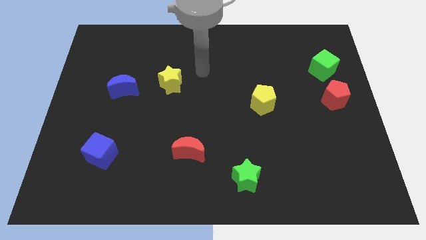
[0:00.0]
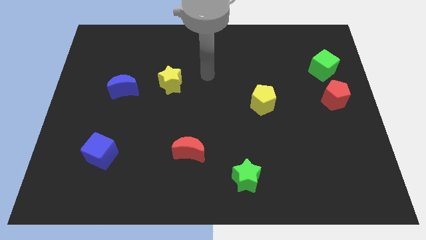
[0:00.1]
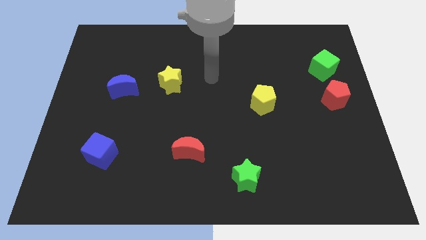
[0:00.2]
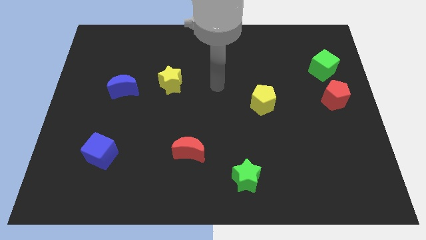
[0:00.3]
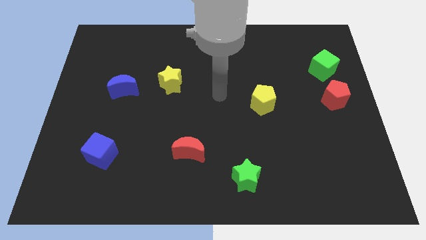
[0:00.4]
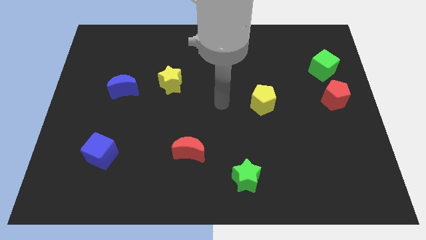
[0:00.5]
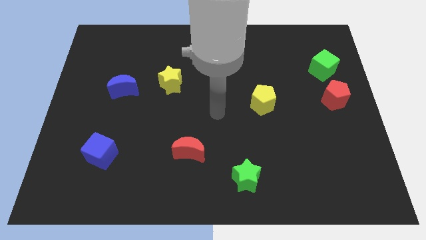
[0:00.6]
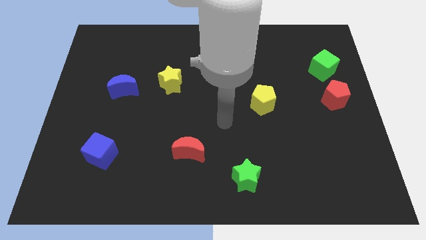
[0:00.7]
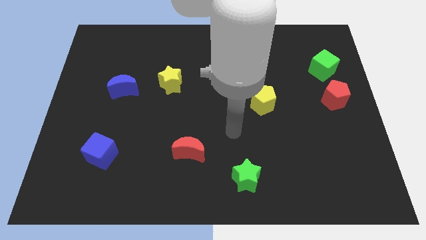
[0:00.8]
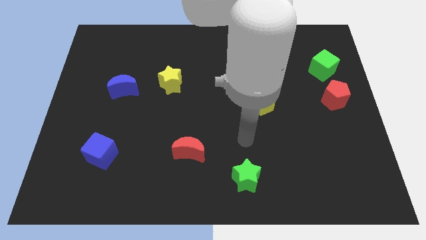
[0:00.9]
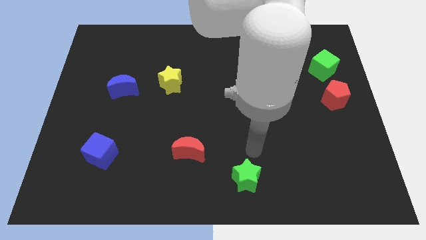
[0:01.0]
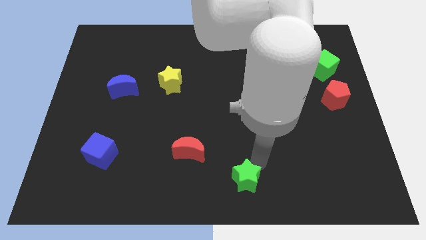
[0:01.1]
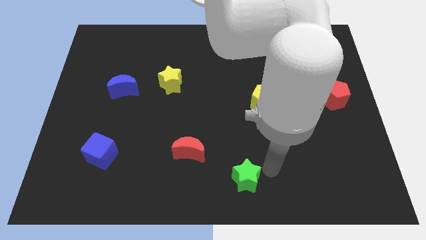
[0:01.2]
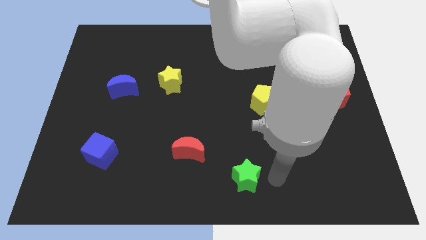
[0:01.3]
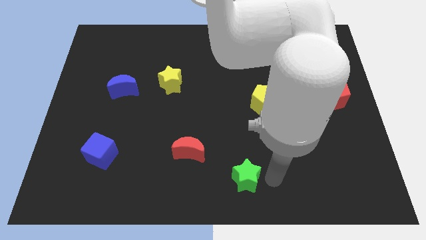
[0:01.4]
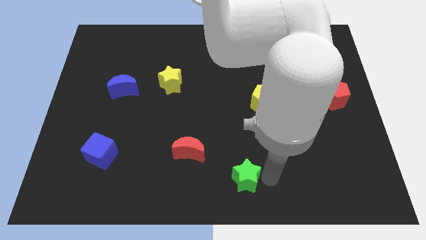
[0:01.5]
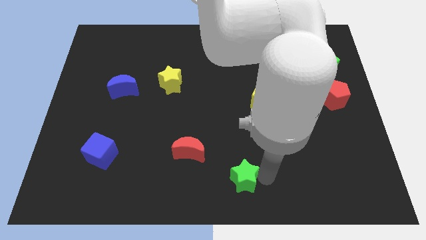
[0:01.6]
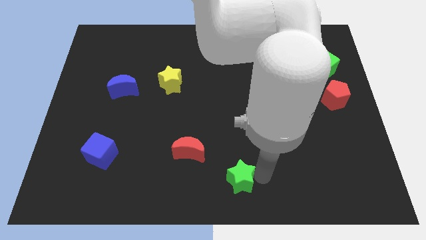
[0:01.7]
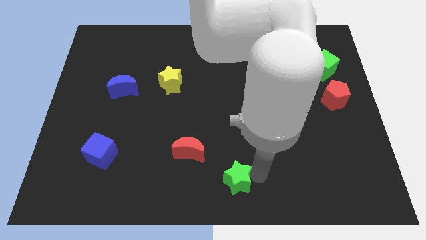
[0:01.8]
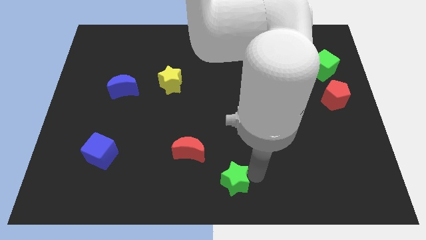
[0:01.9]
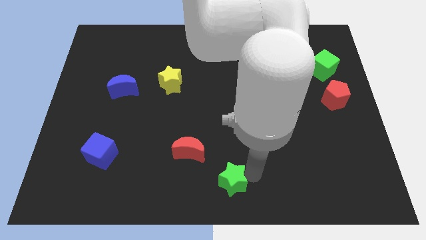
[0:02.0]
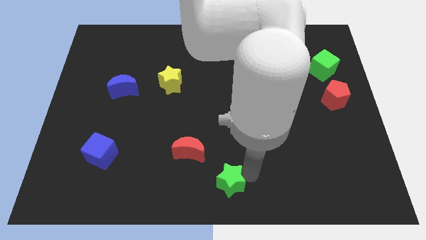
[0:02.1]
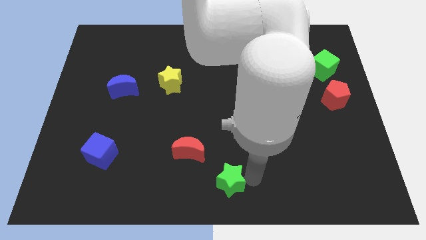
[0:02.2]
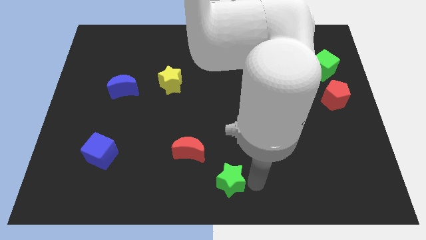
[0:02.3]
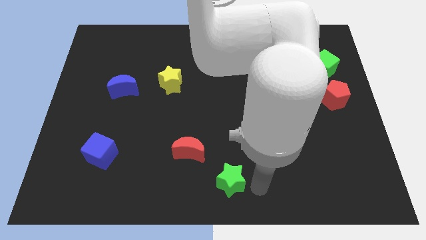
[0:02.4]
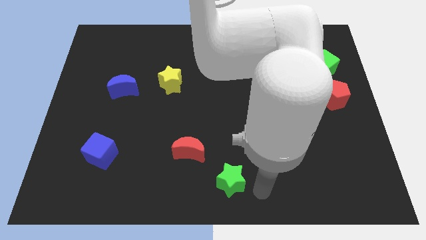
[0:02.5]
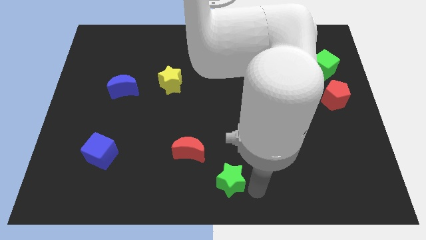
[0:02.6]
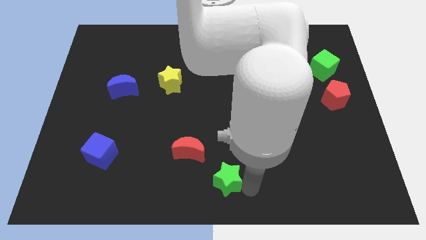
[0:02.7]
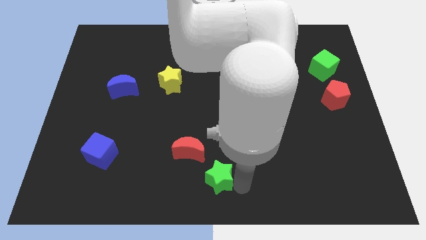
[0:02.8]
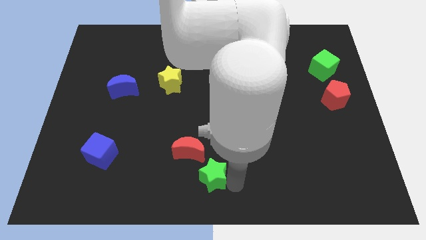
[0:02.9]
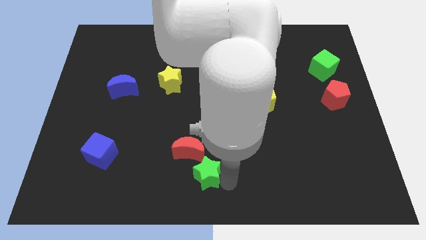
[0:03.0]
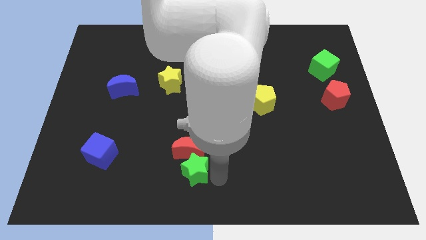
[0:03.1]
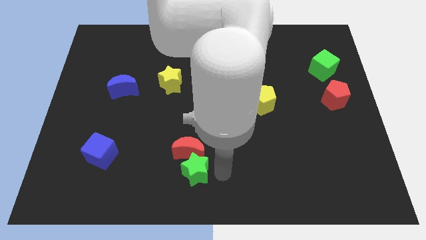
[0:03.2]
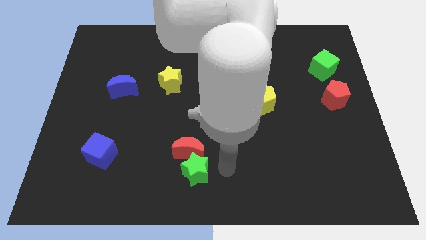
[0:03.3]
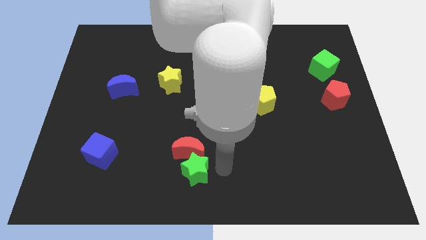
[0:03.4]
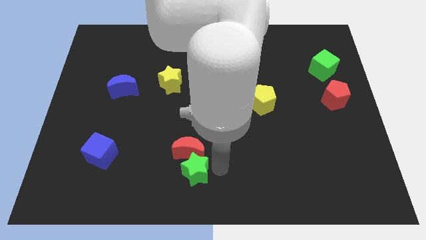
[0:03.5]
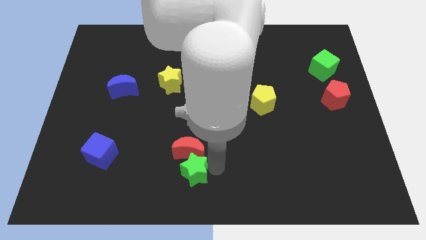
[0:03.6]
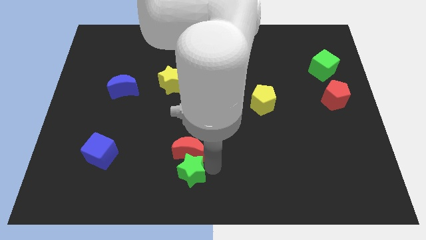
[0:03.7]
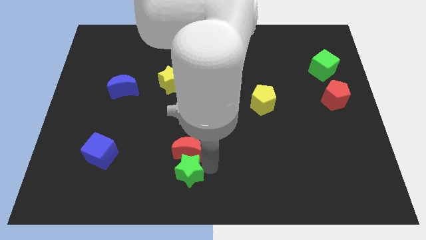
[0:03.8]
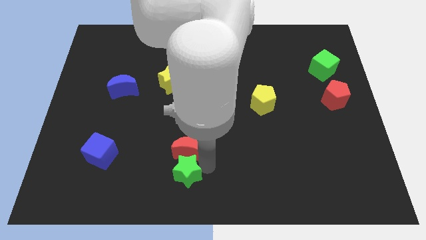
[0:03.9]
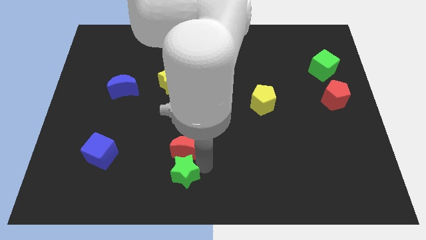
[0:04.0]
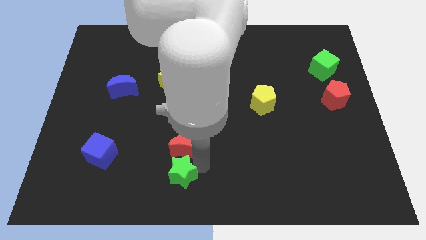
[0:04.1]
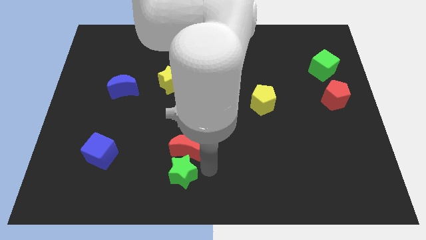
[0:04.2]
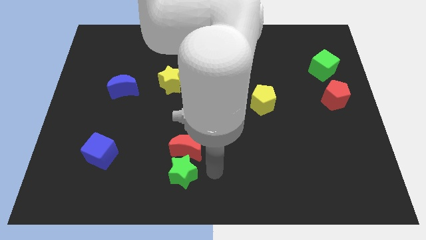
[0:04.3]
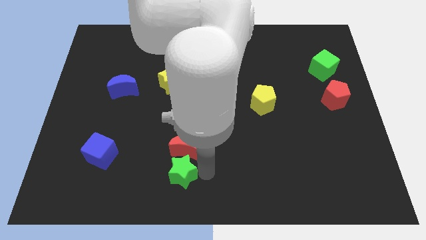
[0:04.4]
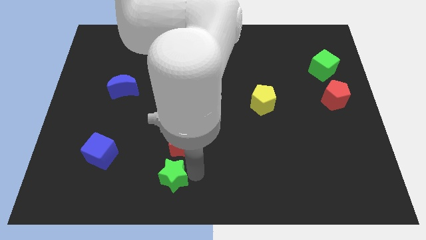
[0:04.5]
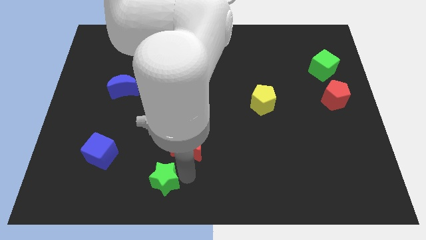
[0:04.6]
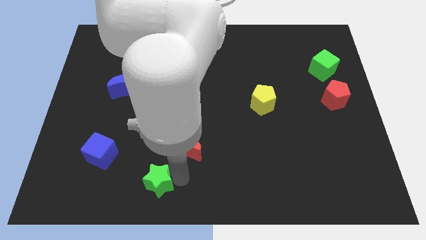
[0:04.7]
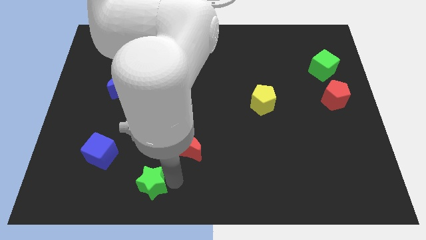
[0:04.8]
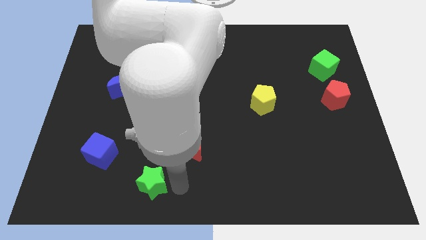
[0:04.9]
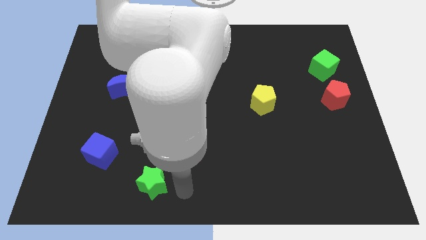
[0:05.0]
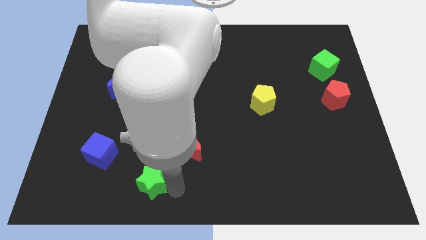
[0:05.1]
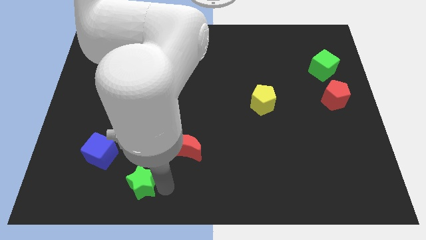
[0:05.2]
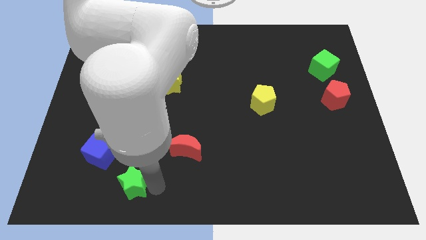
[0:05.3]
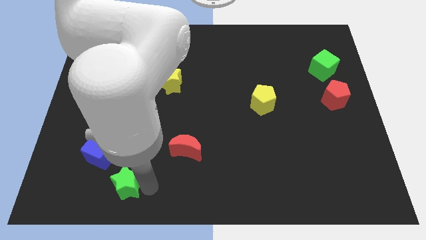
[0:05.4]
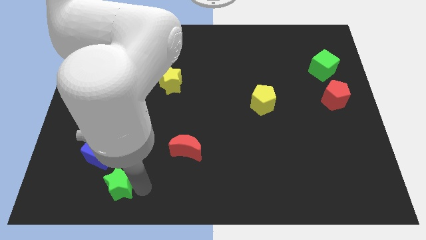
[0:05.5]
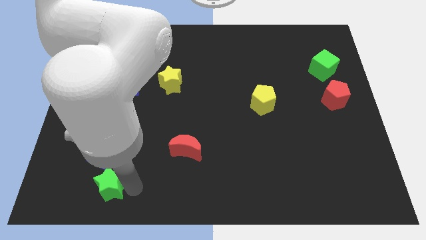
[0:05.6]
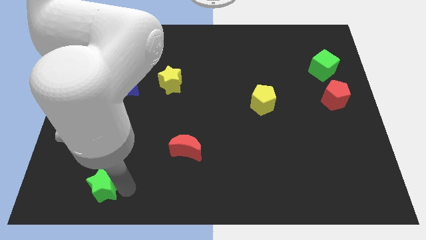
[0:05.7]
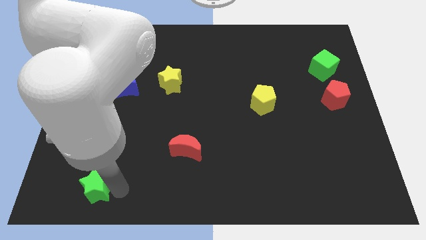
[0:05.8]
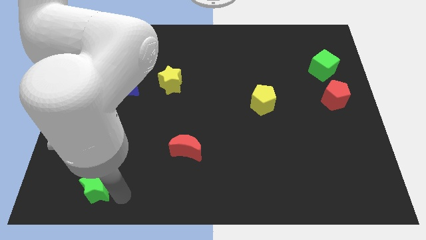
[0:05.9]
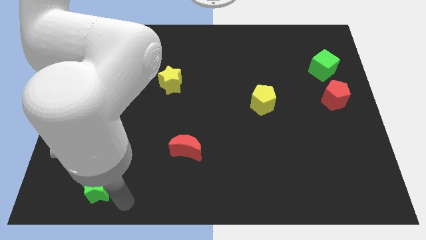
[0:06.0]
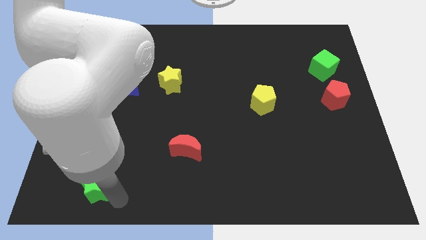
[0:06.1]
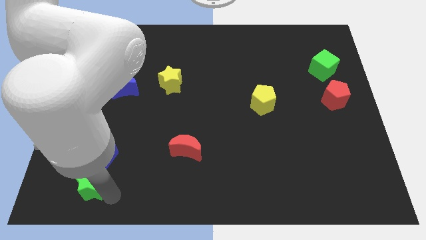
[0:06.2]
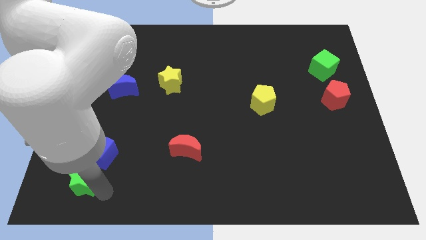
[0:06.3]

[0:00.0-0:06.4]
push the green star diagonally down and to the left of the blue cube

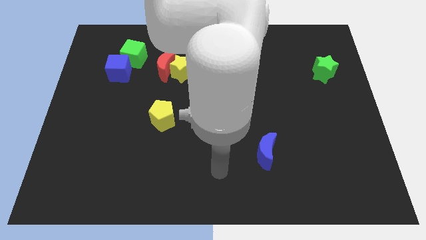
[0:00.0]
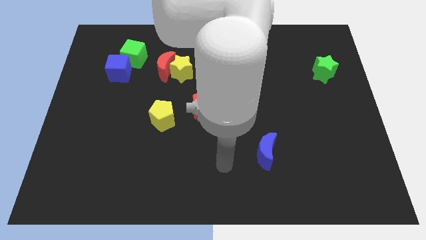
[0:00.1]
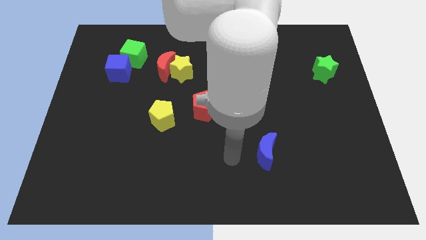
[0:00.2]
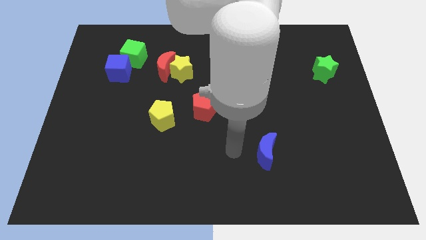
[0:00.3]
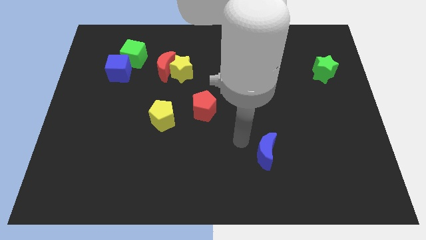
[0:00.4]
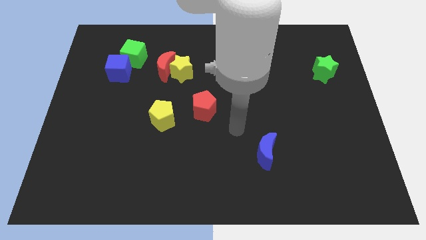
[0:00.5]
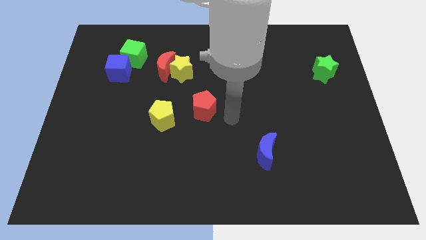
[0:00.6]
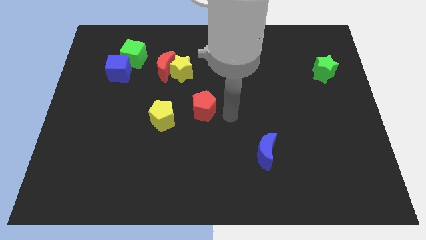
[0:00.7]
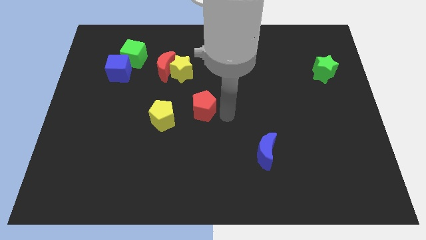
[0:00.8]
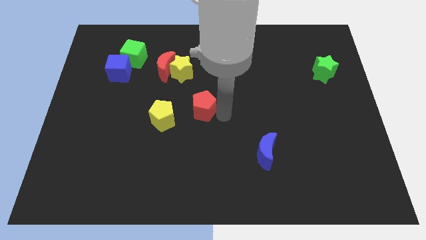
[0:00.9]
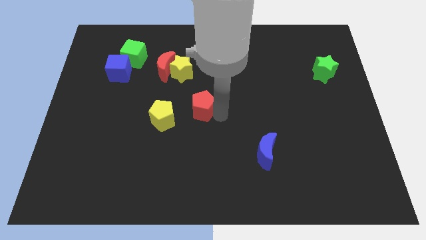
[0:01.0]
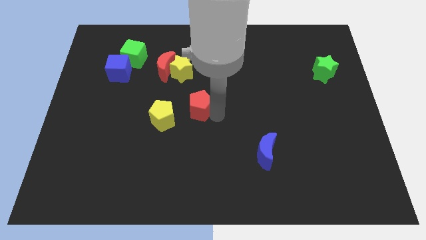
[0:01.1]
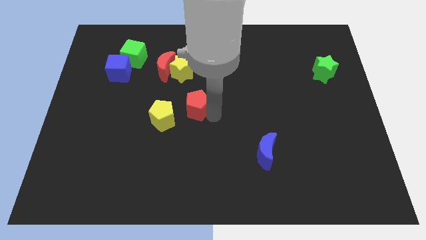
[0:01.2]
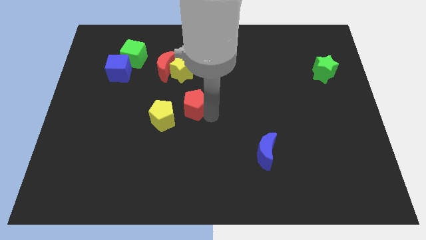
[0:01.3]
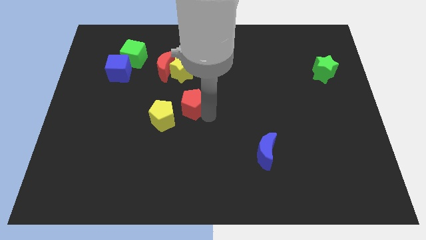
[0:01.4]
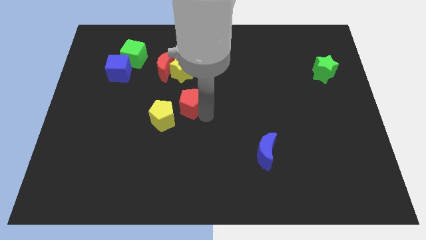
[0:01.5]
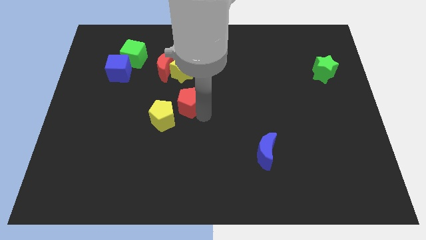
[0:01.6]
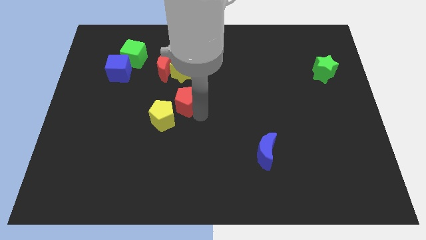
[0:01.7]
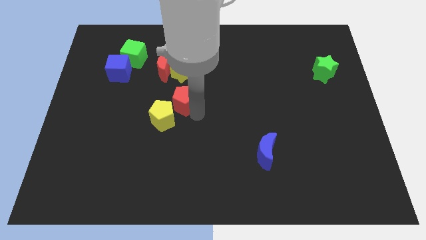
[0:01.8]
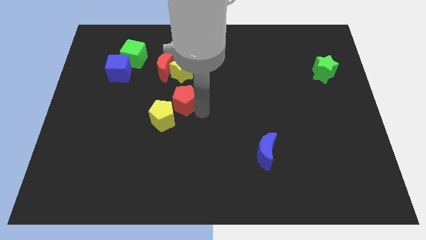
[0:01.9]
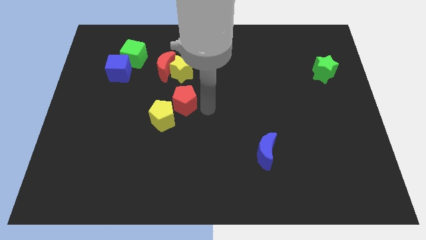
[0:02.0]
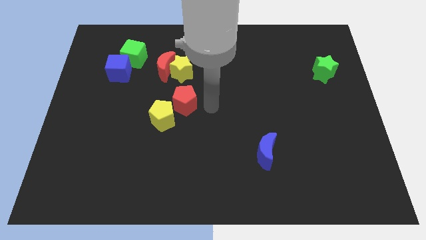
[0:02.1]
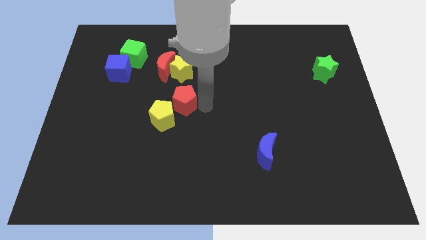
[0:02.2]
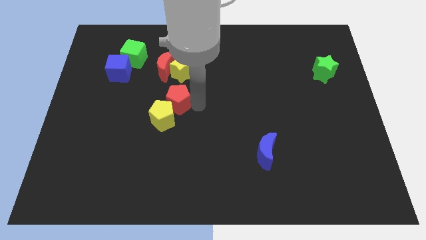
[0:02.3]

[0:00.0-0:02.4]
push the red pentagon below the red moon
